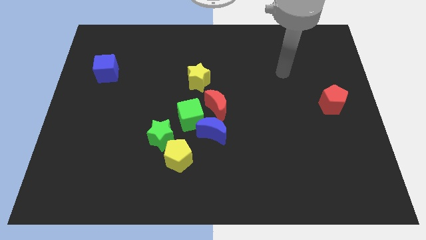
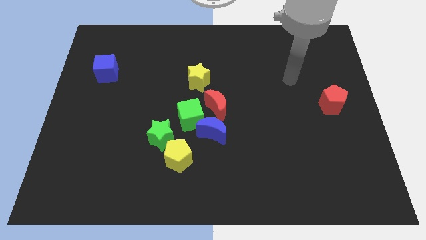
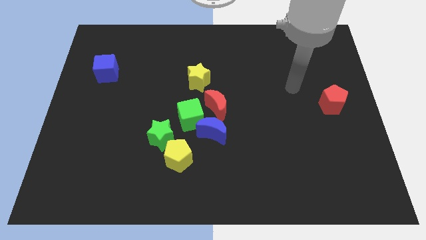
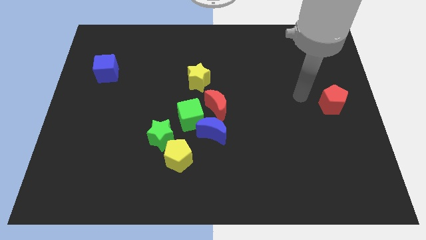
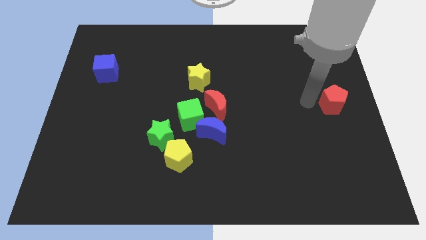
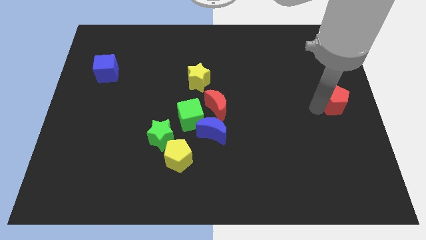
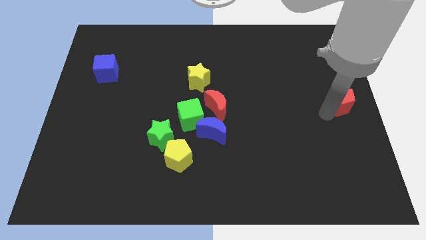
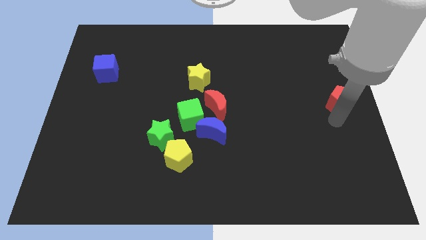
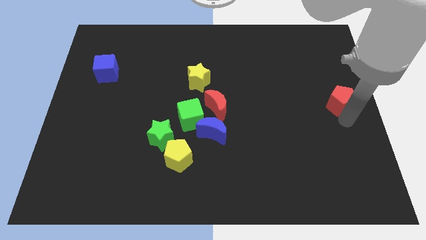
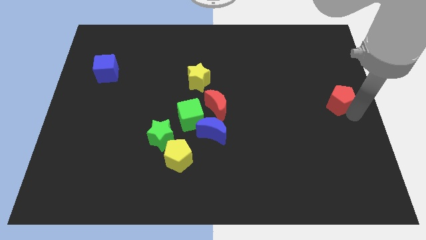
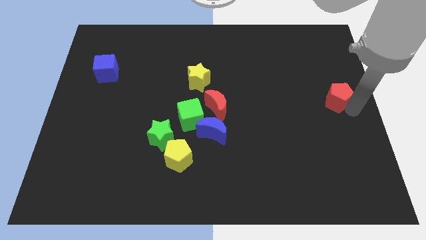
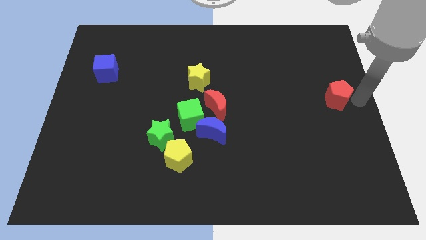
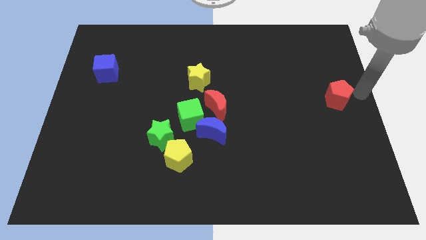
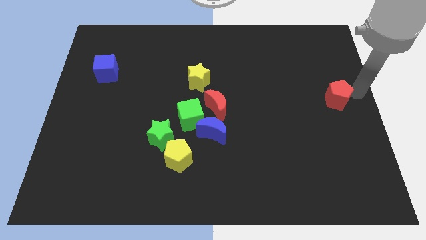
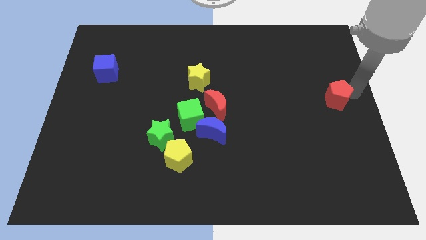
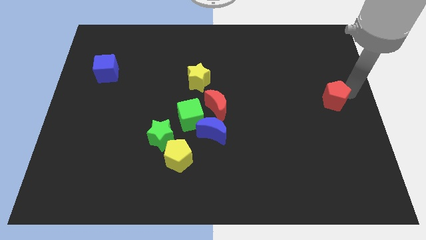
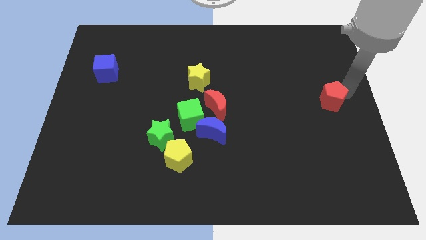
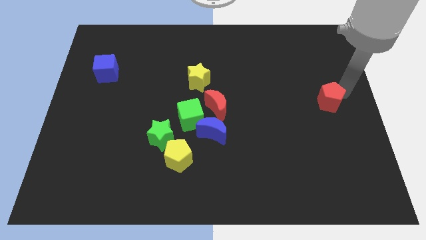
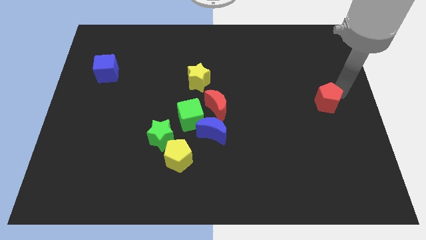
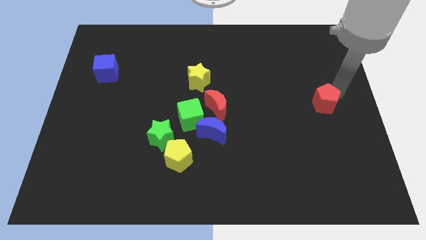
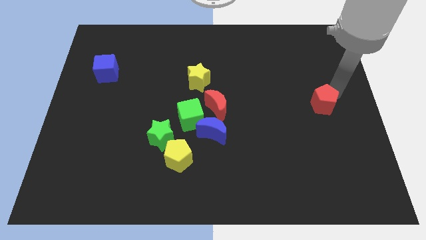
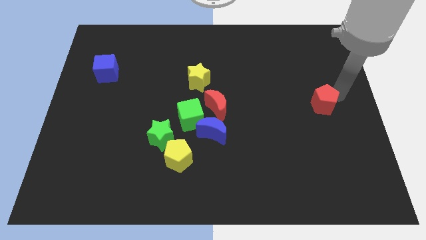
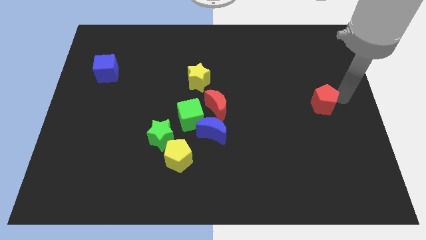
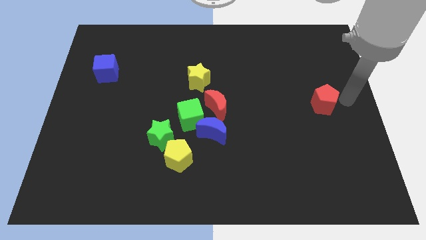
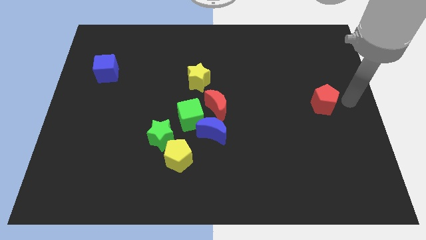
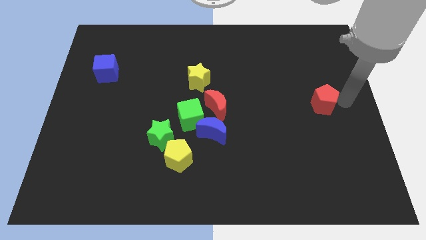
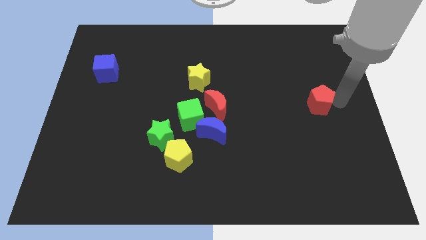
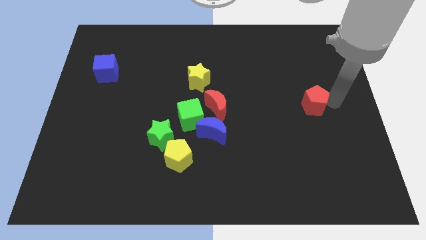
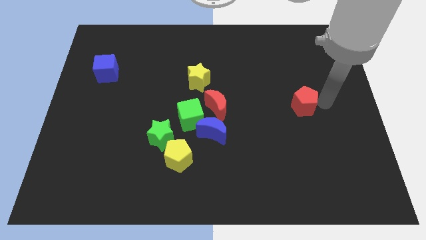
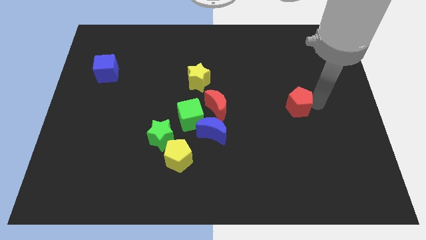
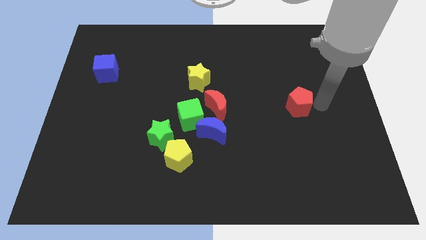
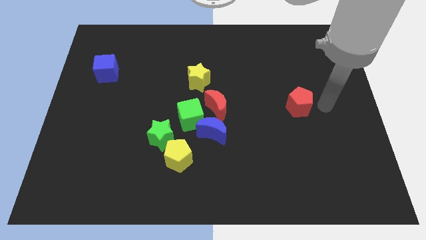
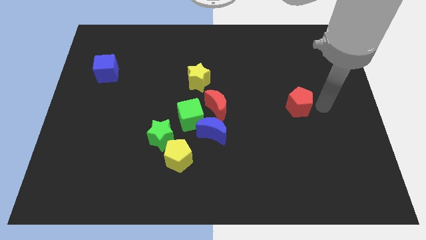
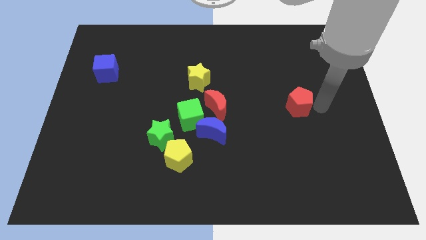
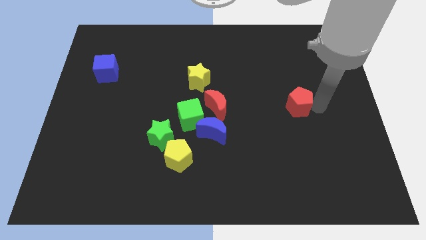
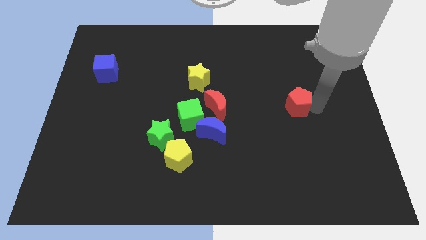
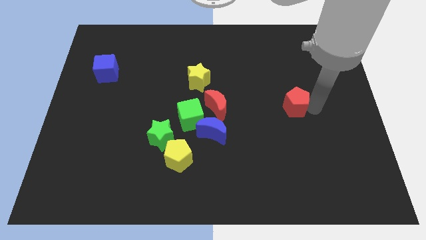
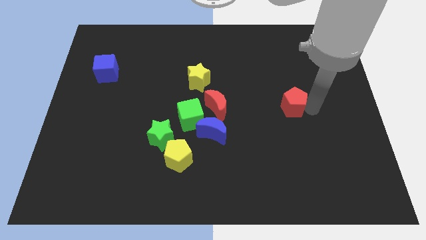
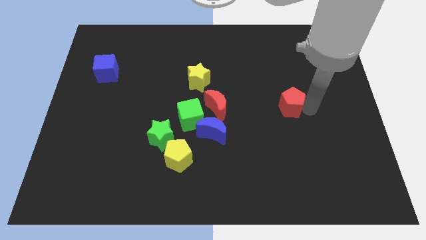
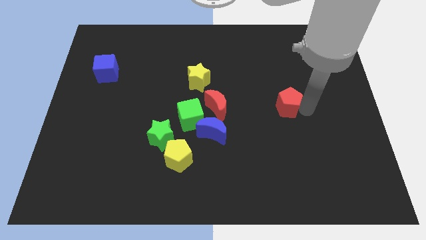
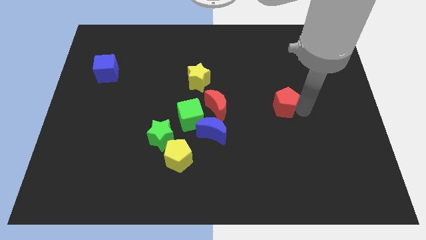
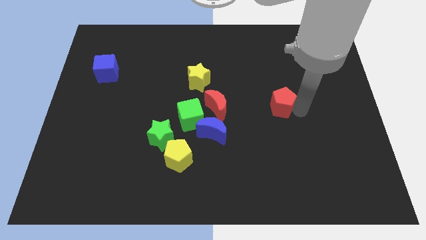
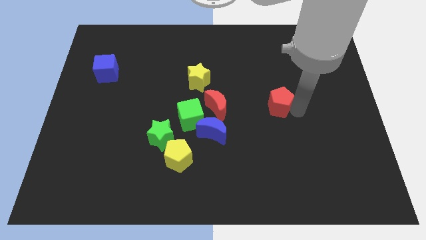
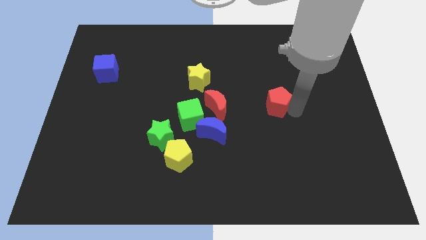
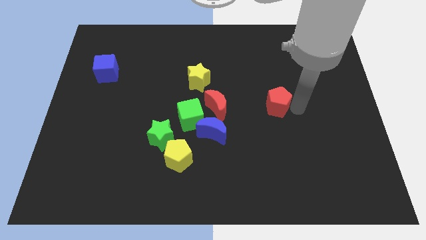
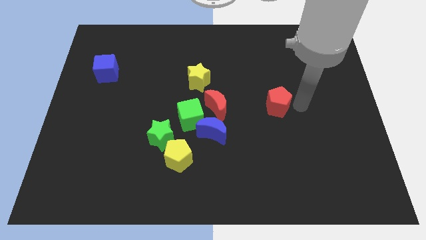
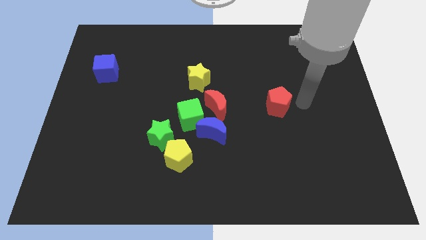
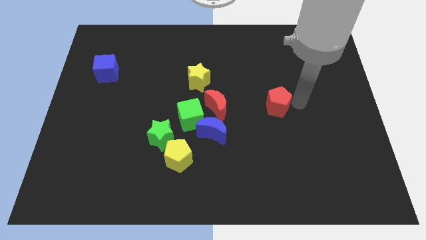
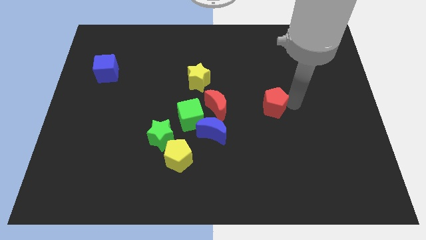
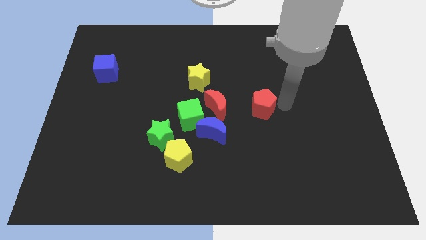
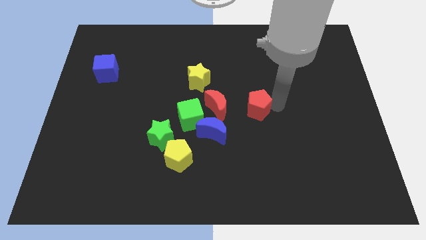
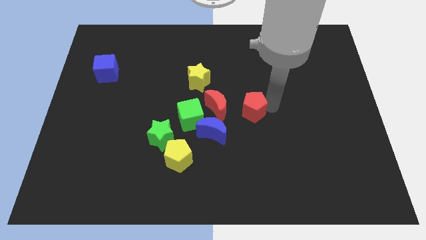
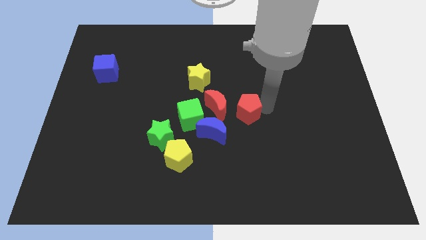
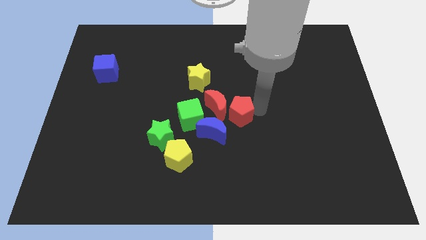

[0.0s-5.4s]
push the red pentagon to the red moon

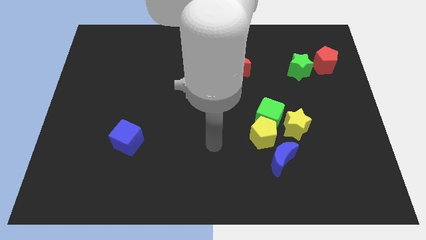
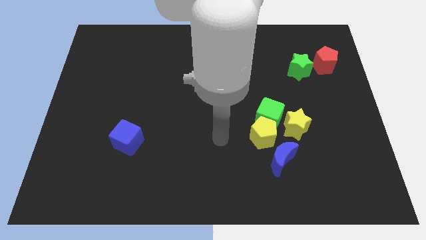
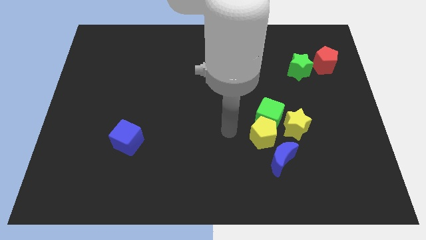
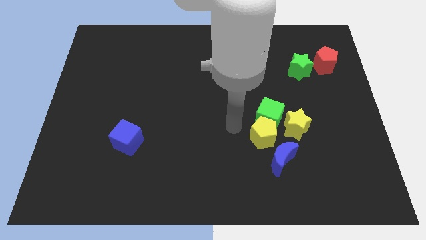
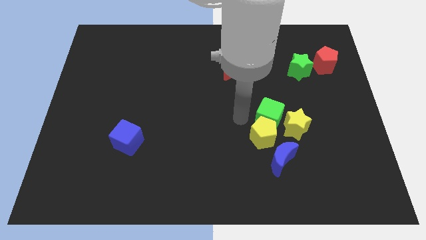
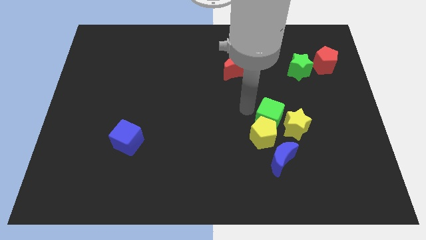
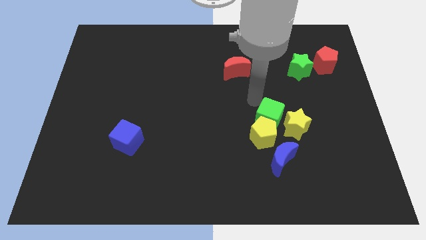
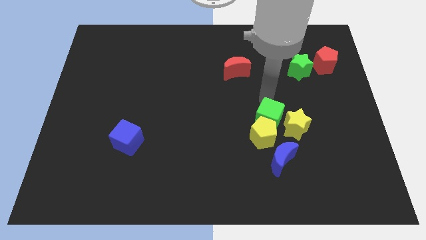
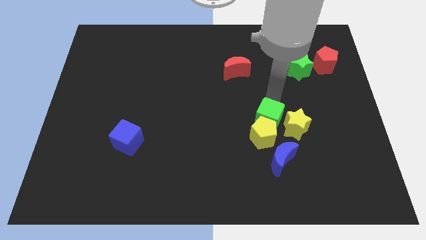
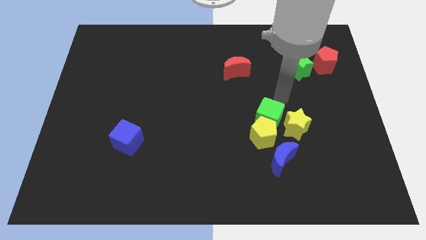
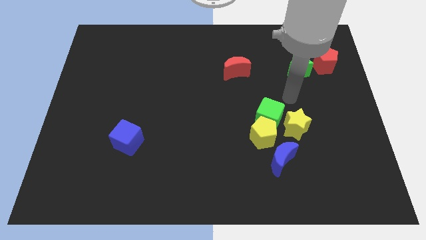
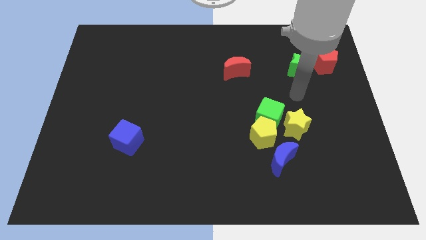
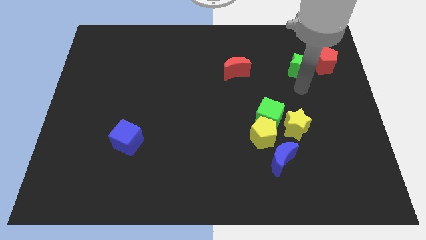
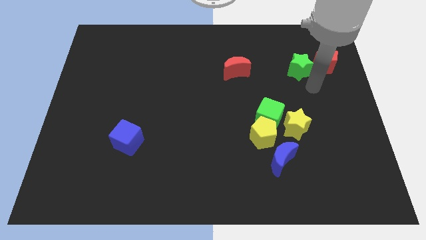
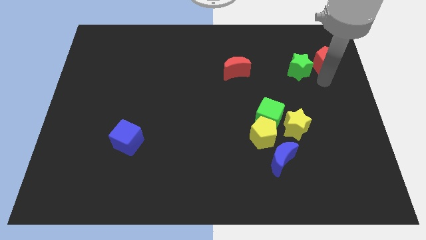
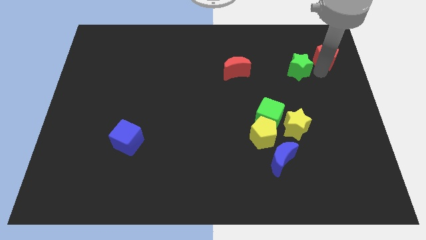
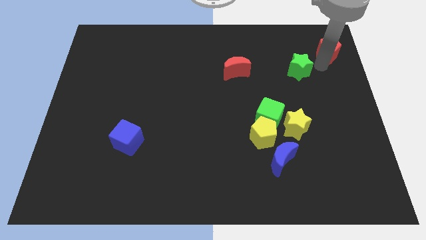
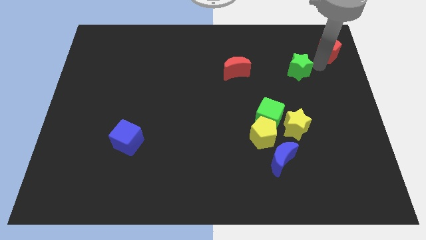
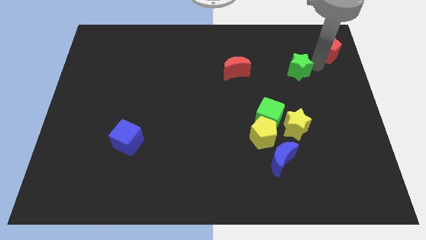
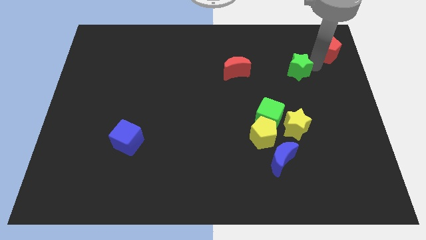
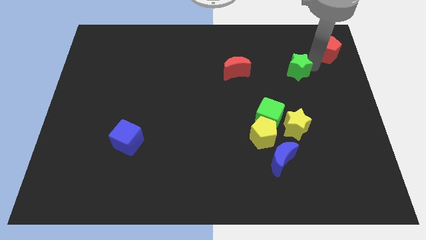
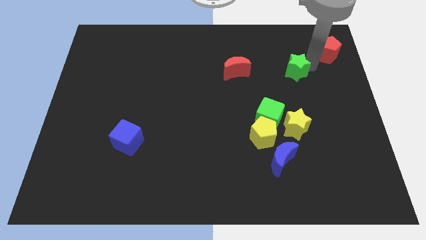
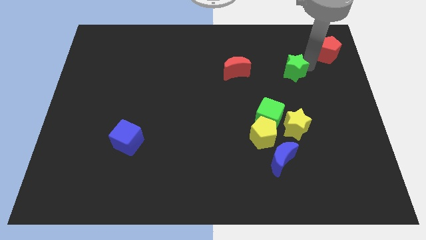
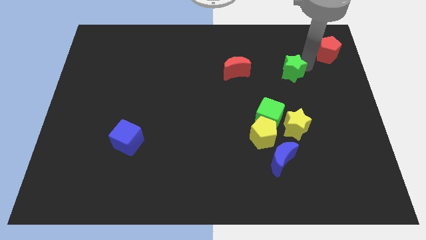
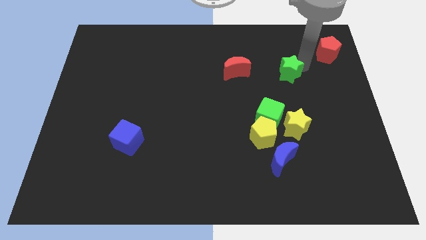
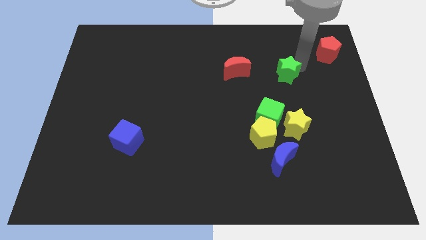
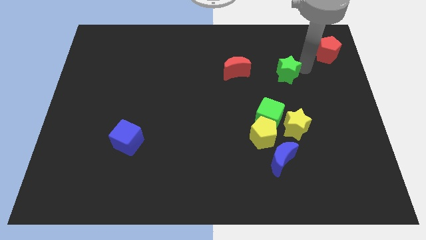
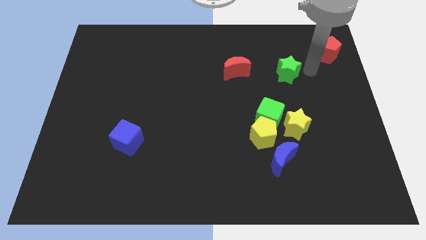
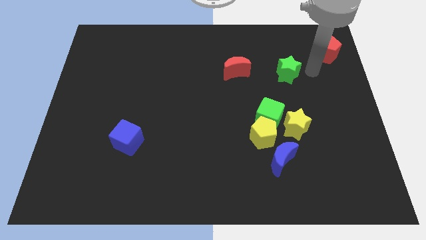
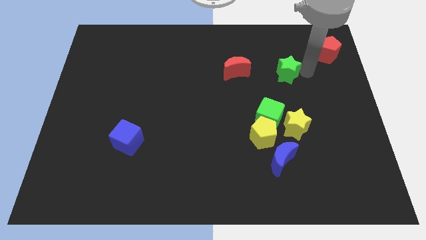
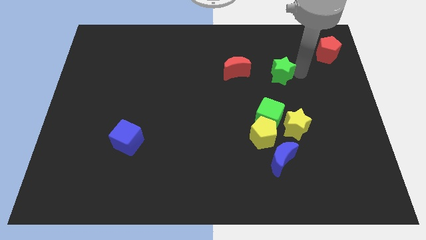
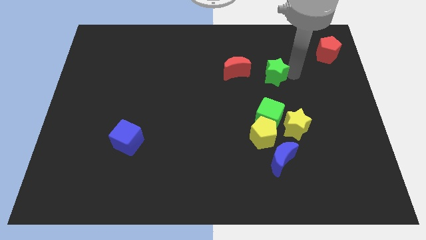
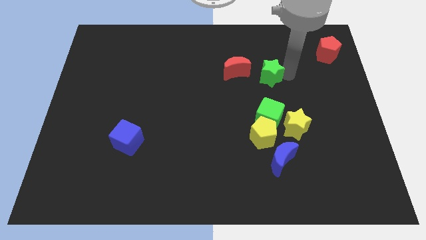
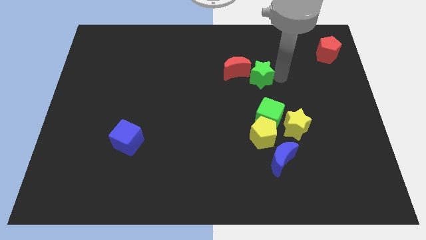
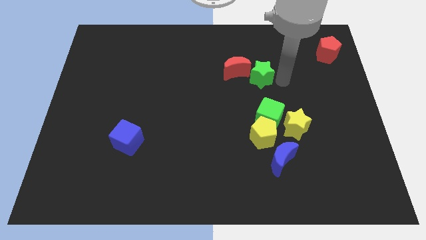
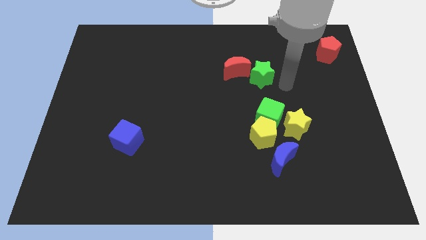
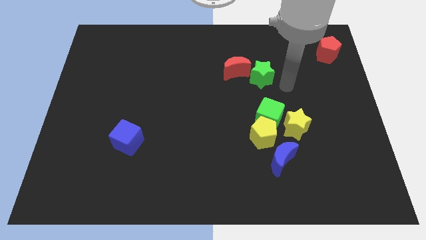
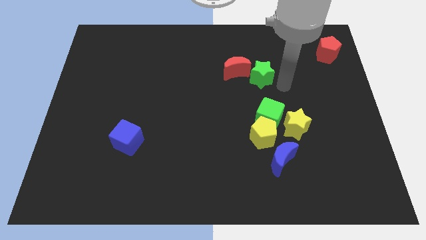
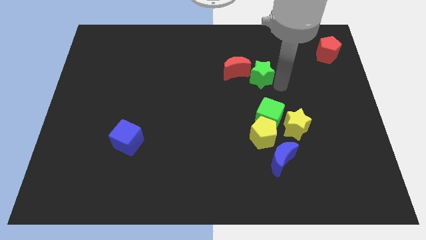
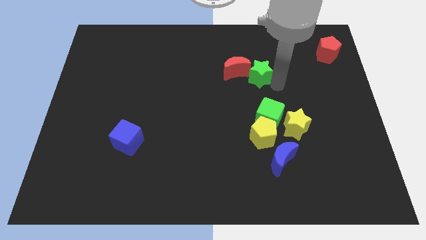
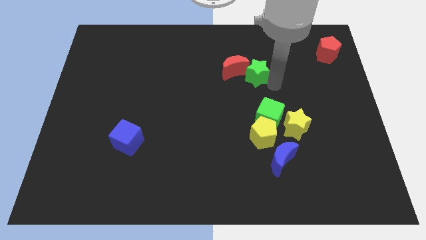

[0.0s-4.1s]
put the green star towards the red moon
